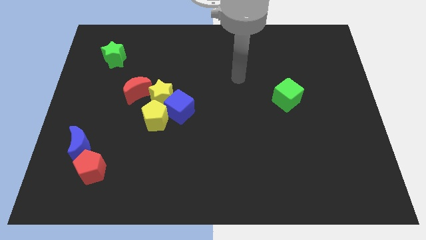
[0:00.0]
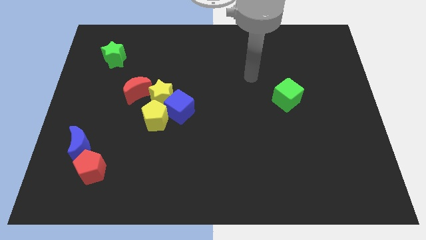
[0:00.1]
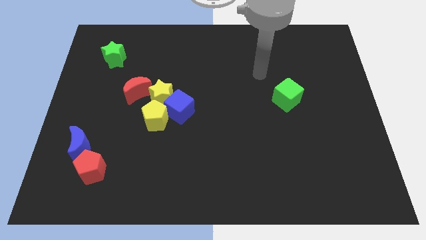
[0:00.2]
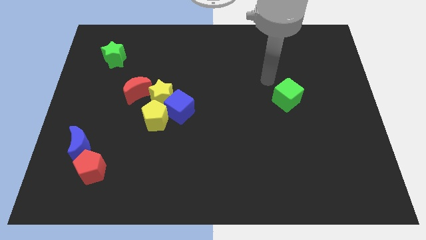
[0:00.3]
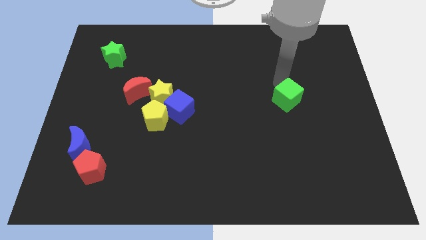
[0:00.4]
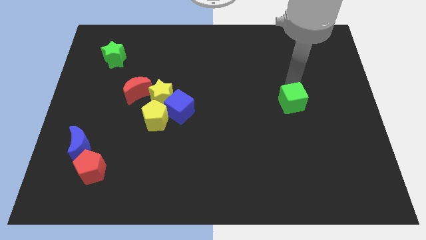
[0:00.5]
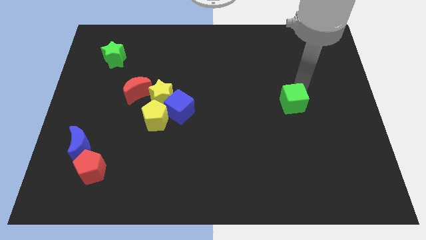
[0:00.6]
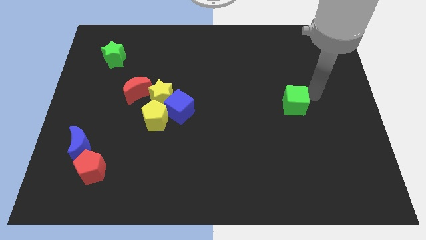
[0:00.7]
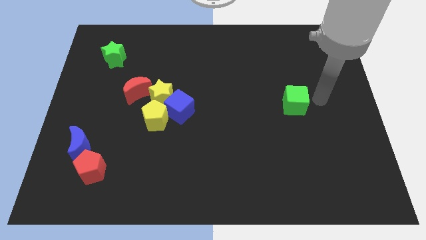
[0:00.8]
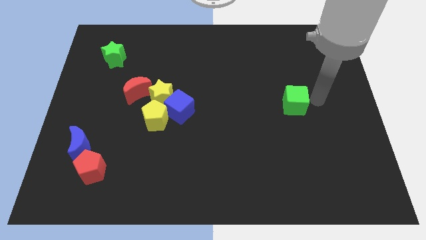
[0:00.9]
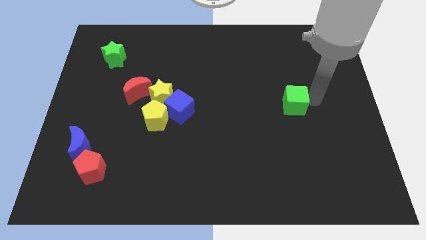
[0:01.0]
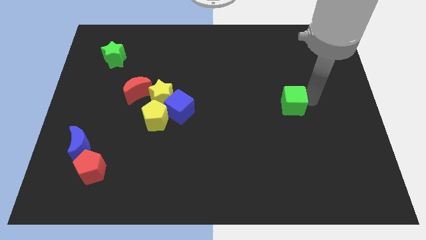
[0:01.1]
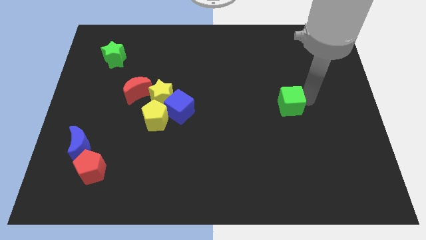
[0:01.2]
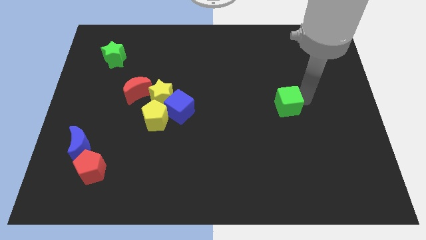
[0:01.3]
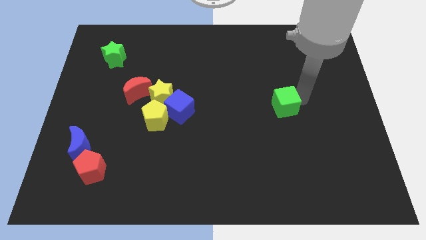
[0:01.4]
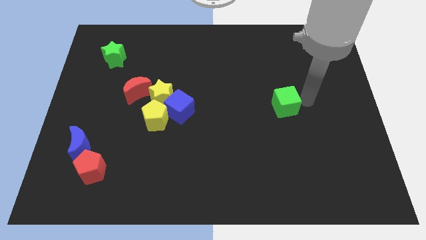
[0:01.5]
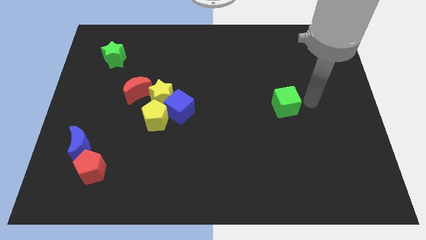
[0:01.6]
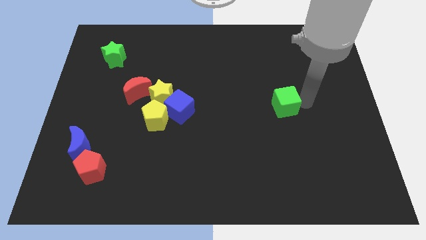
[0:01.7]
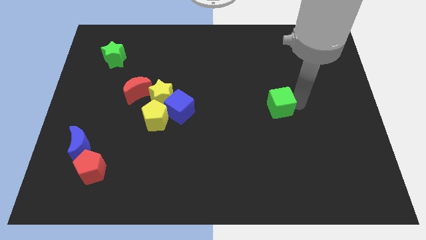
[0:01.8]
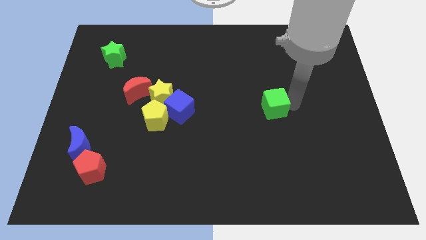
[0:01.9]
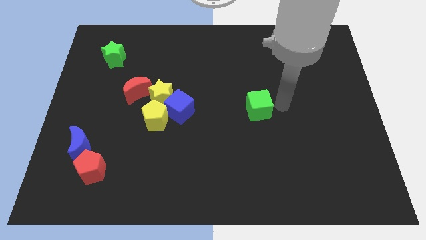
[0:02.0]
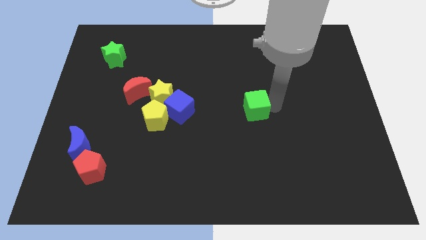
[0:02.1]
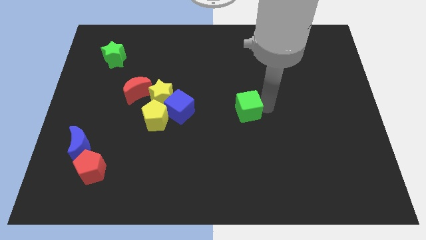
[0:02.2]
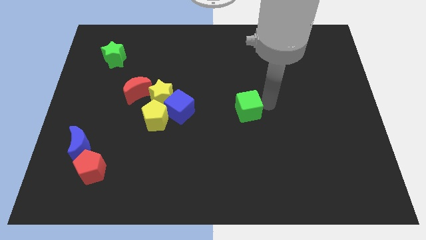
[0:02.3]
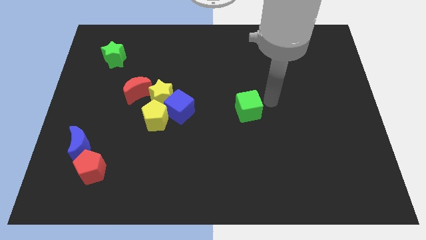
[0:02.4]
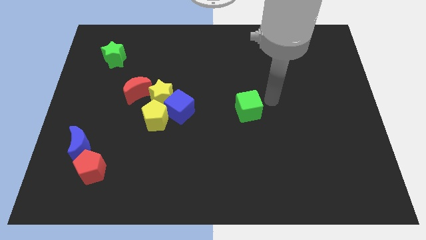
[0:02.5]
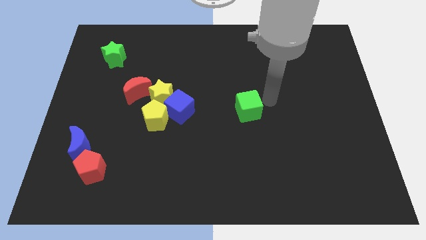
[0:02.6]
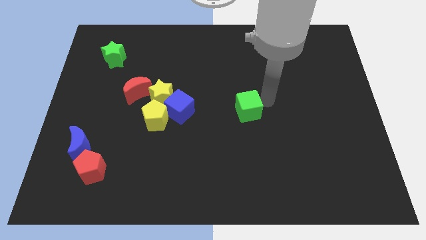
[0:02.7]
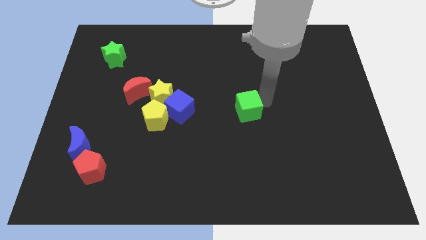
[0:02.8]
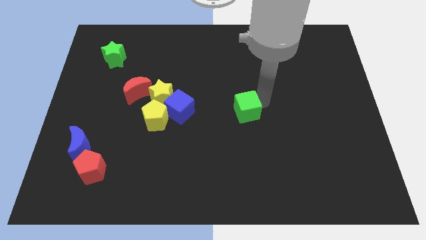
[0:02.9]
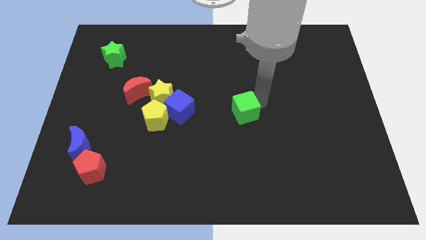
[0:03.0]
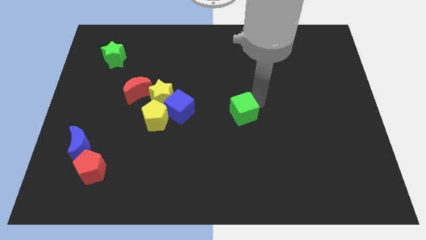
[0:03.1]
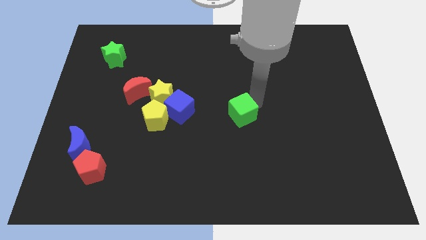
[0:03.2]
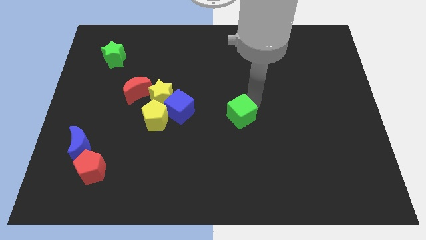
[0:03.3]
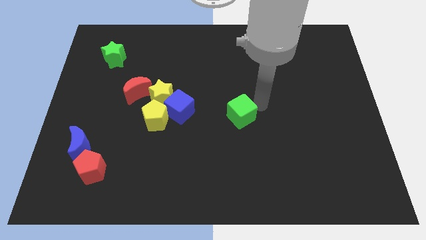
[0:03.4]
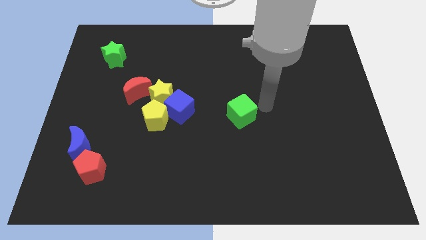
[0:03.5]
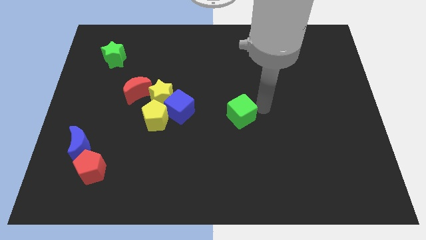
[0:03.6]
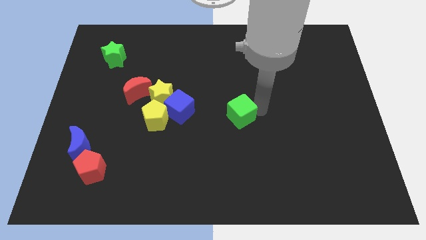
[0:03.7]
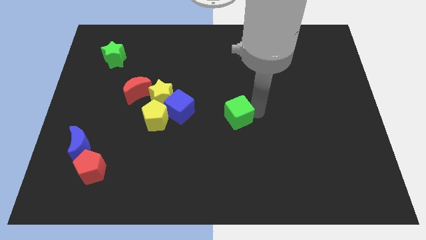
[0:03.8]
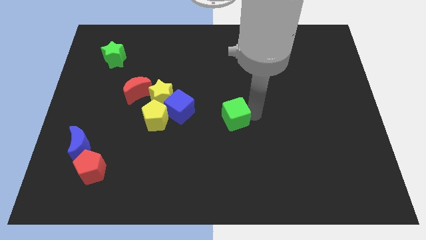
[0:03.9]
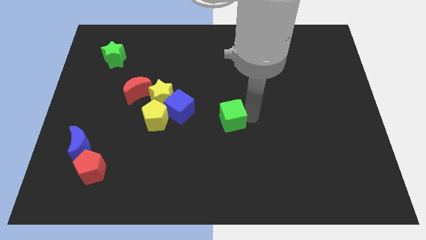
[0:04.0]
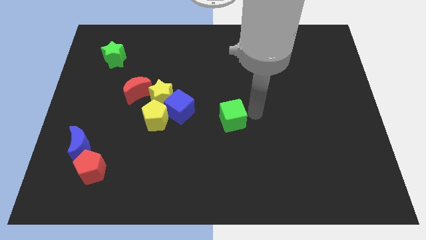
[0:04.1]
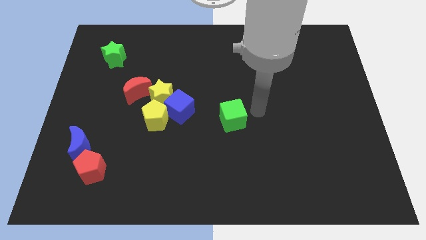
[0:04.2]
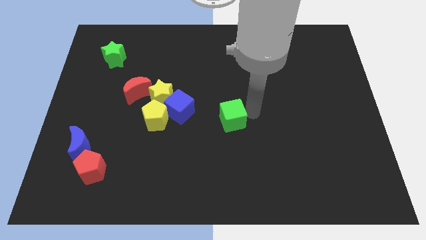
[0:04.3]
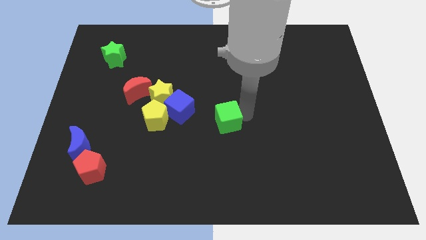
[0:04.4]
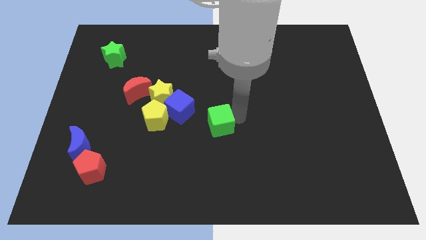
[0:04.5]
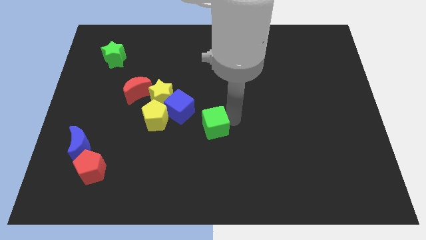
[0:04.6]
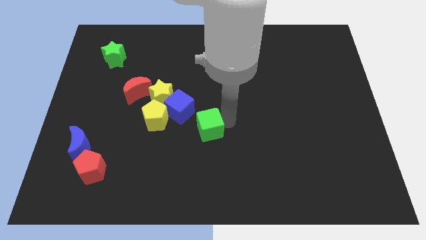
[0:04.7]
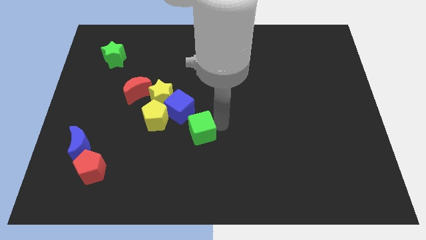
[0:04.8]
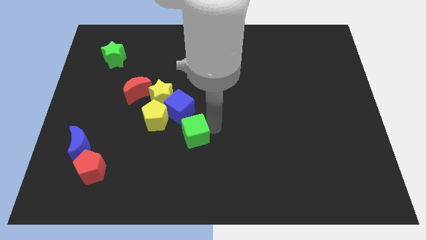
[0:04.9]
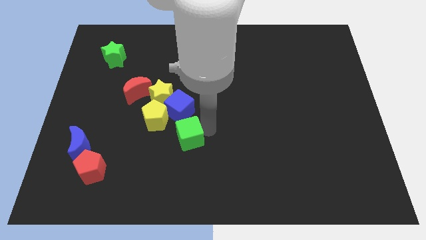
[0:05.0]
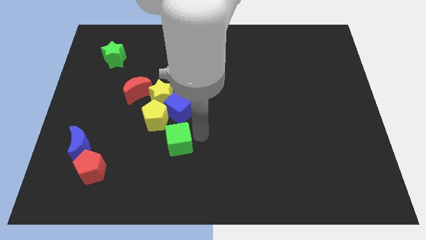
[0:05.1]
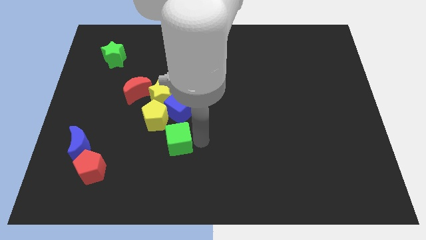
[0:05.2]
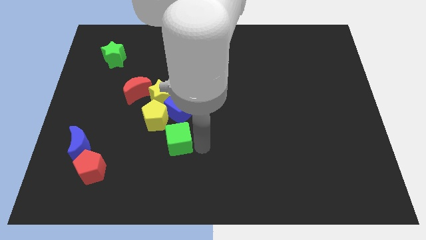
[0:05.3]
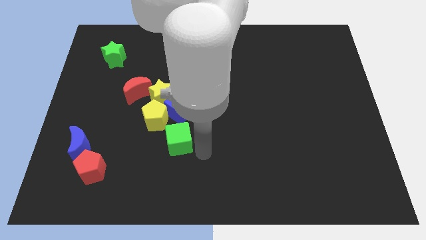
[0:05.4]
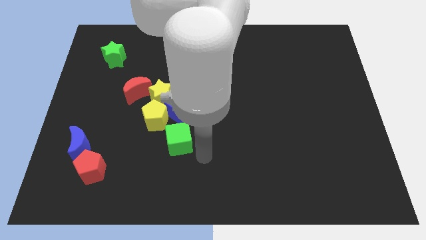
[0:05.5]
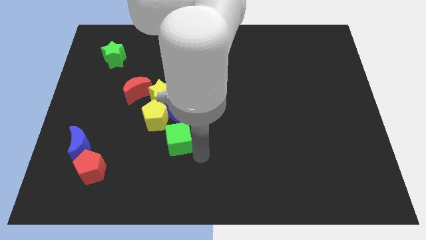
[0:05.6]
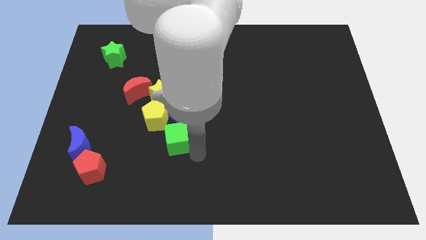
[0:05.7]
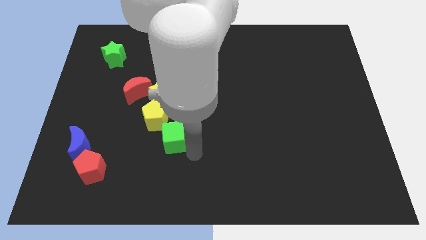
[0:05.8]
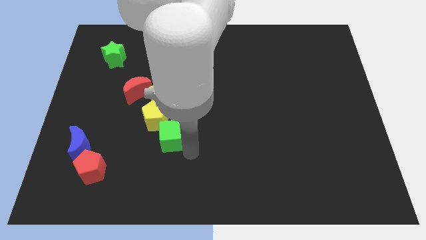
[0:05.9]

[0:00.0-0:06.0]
push the green cube to the bottom left of the blue cube

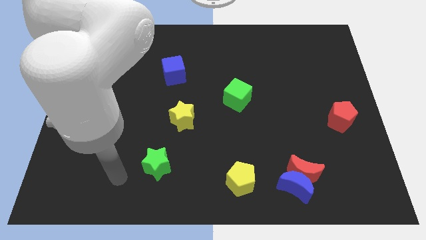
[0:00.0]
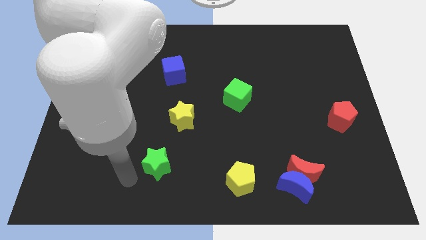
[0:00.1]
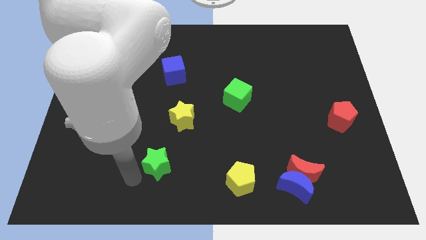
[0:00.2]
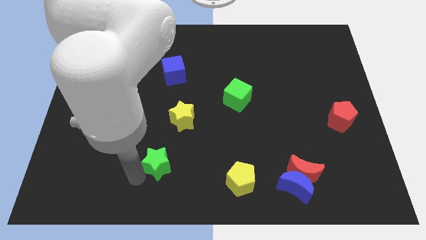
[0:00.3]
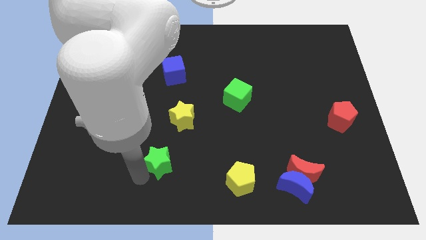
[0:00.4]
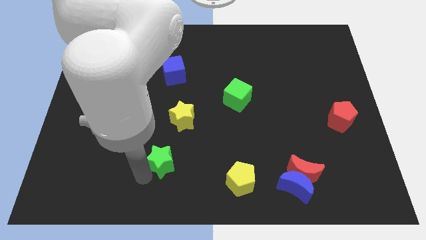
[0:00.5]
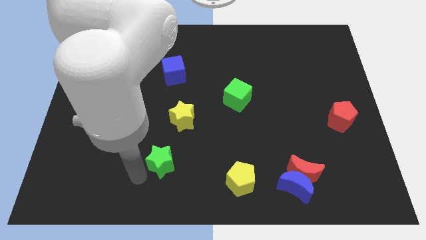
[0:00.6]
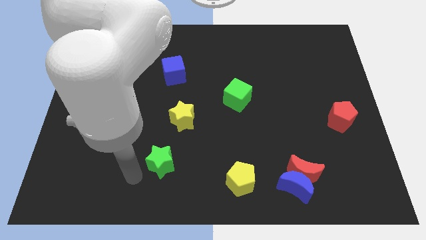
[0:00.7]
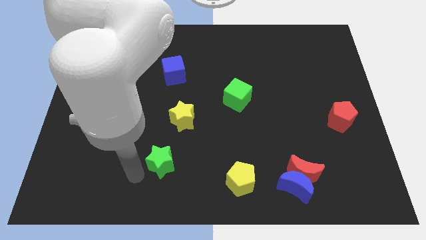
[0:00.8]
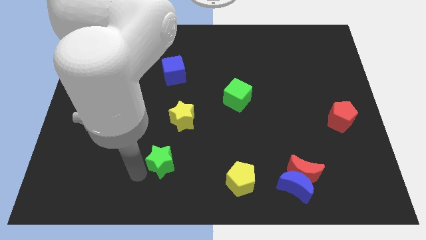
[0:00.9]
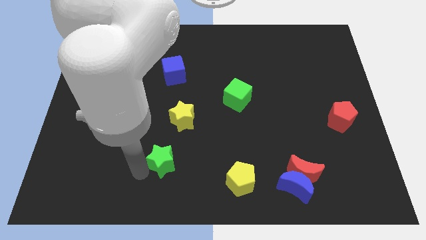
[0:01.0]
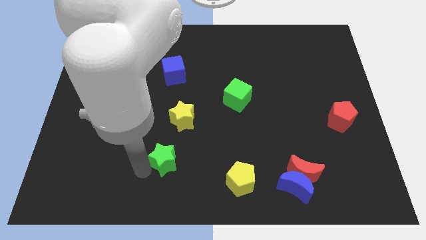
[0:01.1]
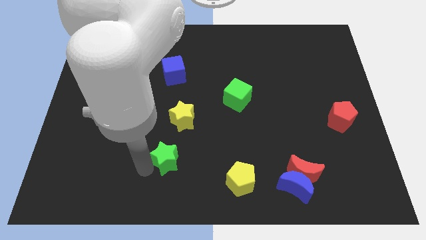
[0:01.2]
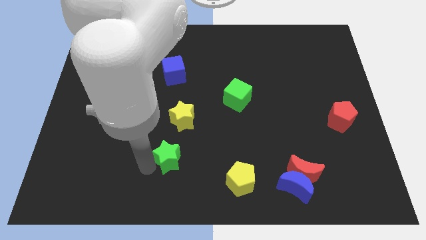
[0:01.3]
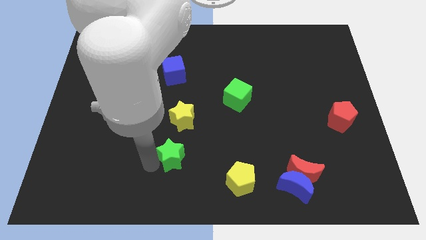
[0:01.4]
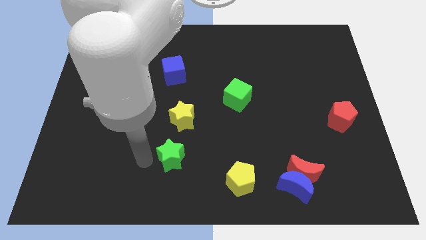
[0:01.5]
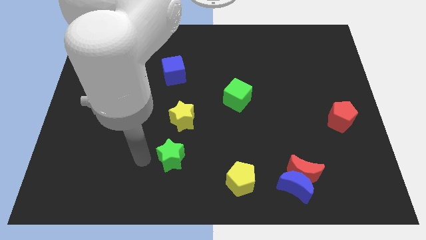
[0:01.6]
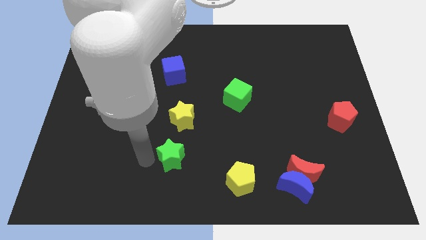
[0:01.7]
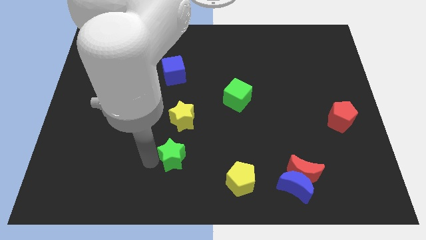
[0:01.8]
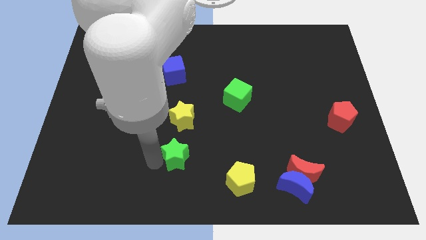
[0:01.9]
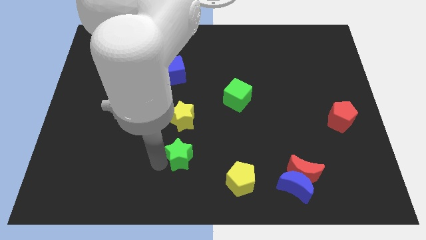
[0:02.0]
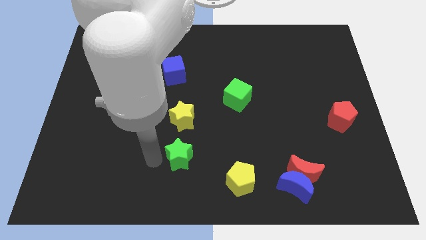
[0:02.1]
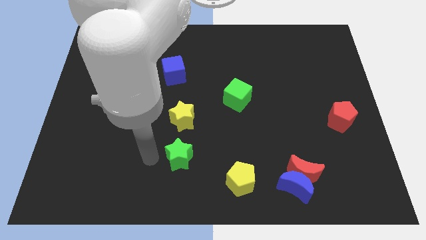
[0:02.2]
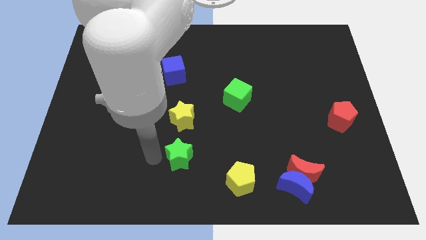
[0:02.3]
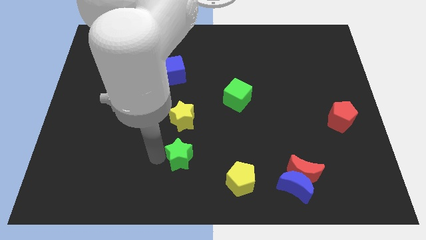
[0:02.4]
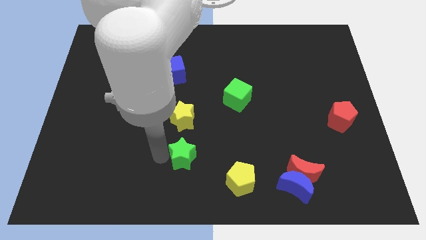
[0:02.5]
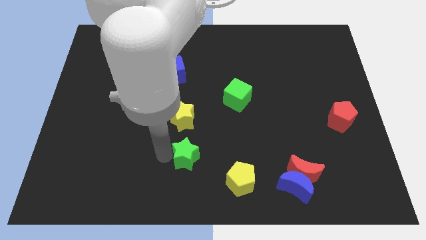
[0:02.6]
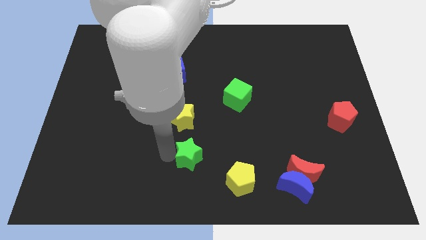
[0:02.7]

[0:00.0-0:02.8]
push the green star diagonally up and to the left of the yellow pentagon
